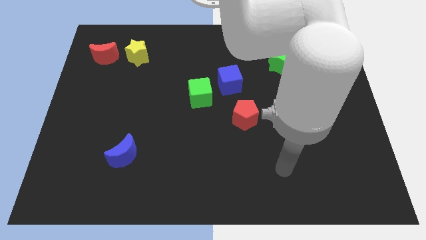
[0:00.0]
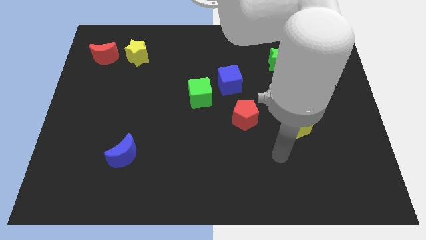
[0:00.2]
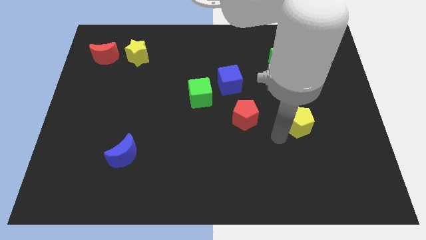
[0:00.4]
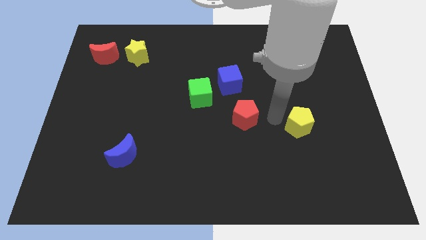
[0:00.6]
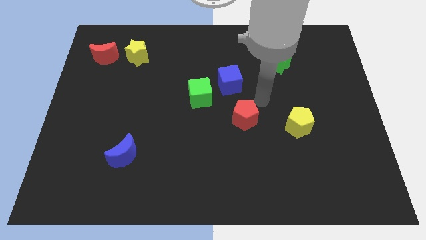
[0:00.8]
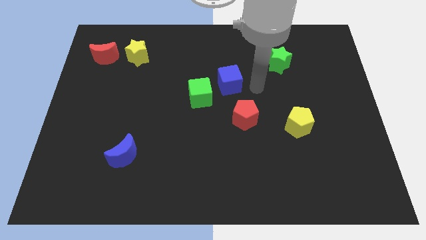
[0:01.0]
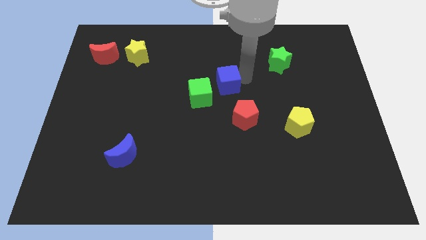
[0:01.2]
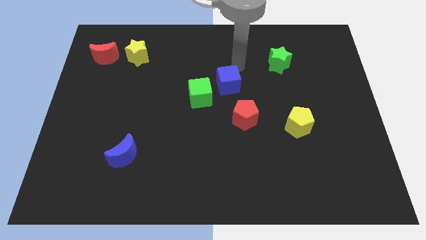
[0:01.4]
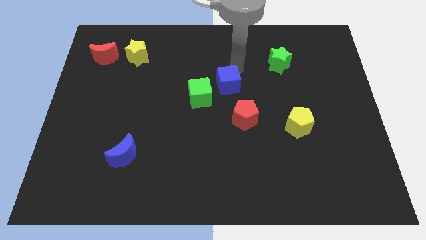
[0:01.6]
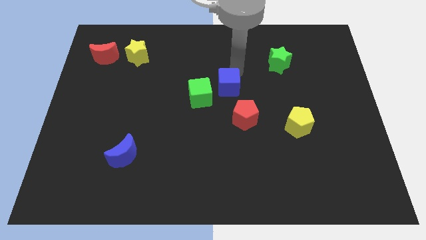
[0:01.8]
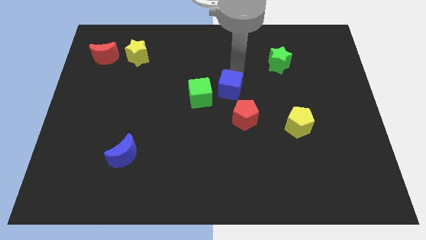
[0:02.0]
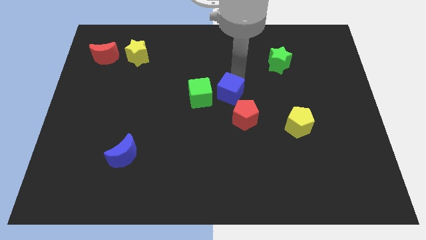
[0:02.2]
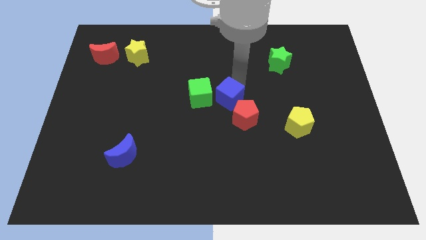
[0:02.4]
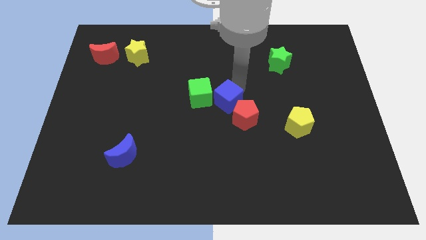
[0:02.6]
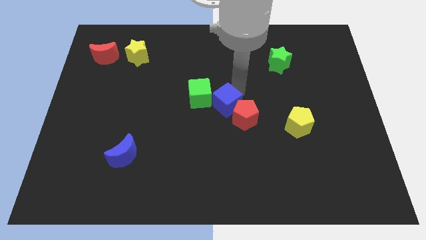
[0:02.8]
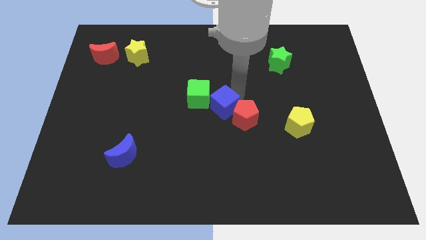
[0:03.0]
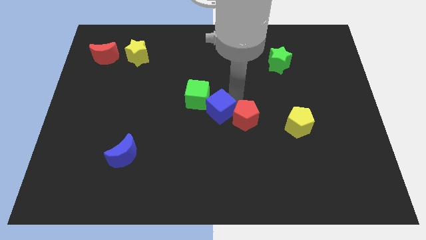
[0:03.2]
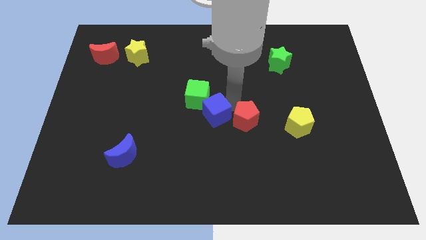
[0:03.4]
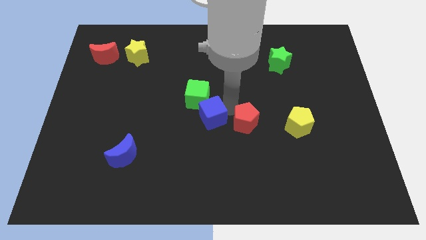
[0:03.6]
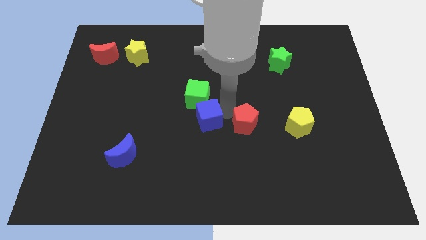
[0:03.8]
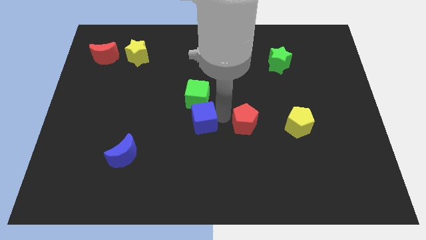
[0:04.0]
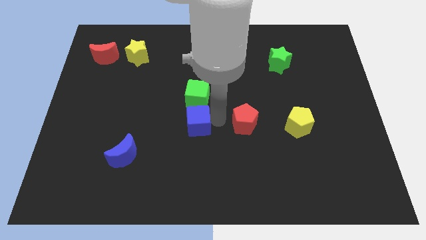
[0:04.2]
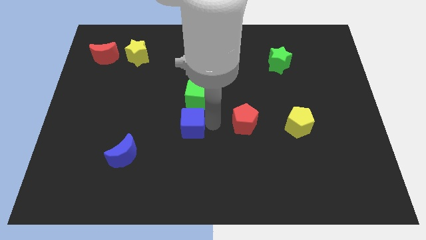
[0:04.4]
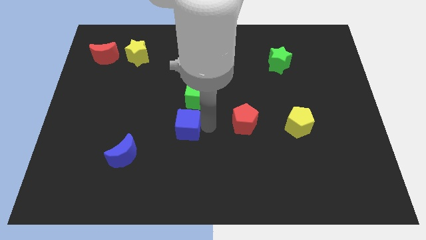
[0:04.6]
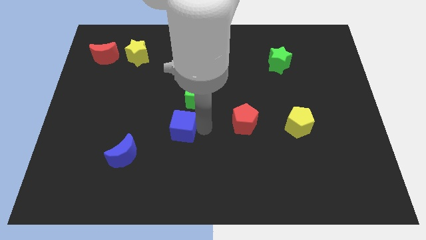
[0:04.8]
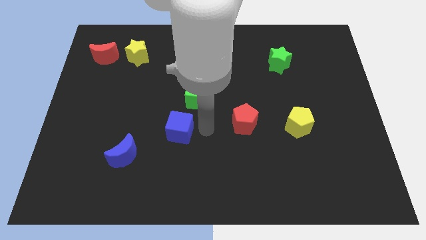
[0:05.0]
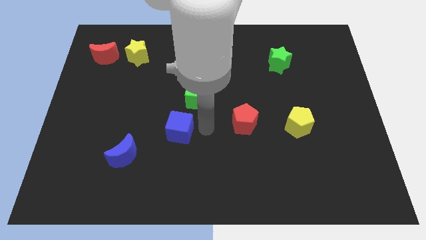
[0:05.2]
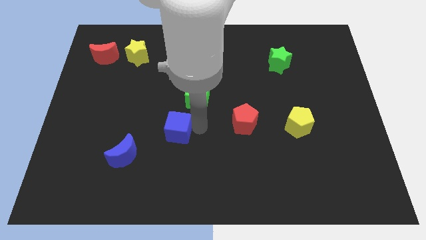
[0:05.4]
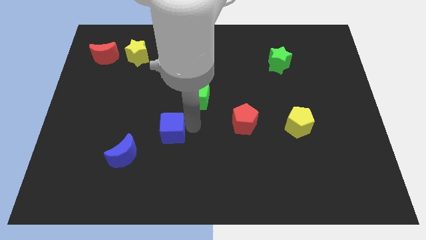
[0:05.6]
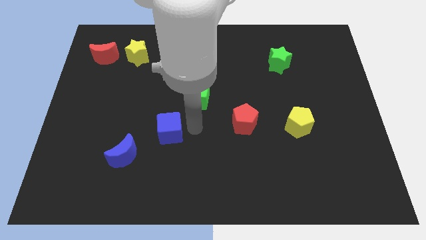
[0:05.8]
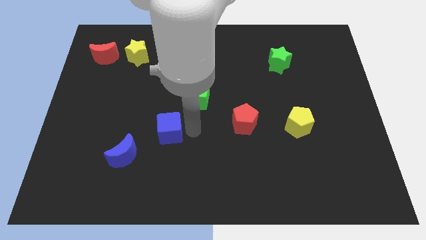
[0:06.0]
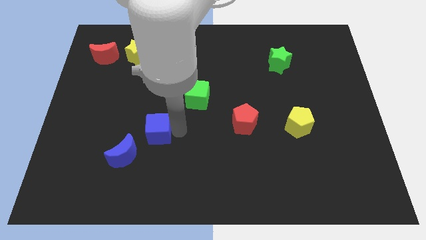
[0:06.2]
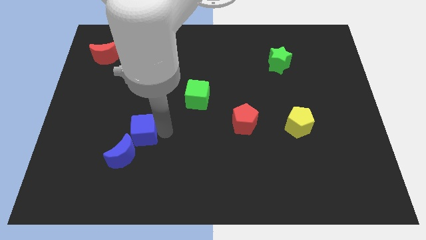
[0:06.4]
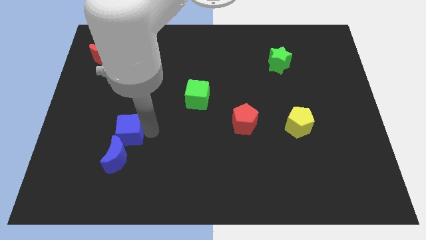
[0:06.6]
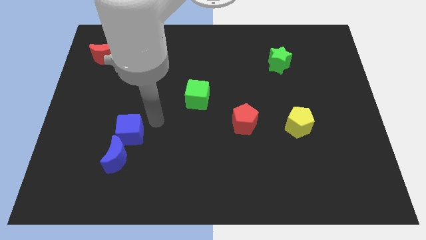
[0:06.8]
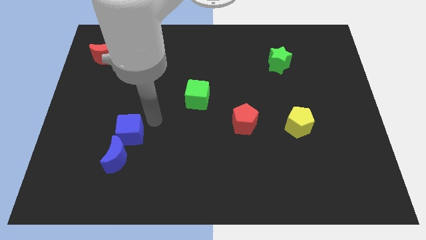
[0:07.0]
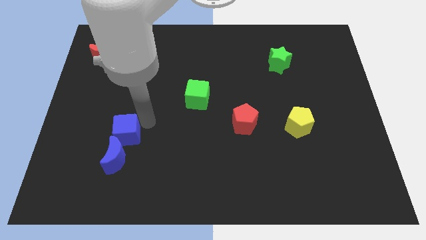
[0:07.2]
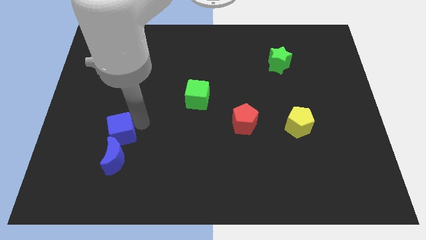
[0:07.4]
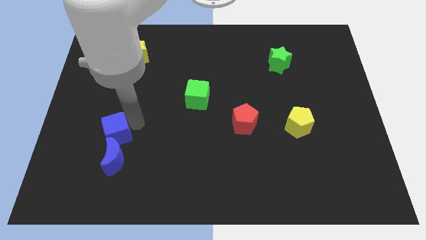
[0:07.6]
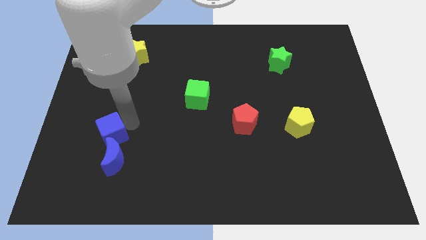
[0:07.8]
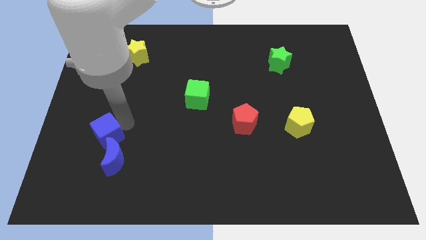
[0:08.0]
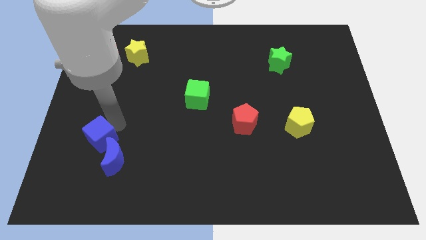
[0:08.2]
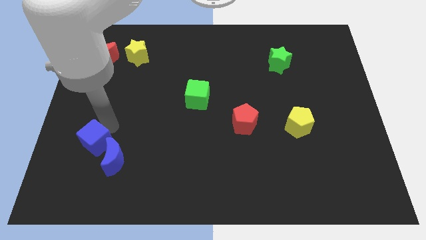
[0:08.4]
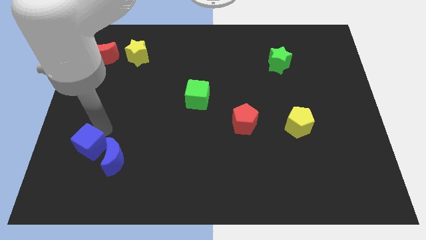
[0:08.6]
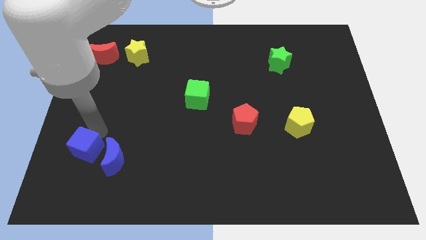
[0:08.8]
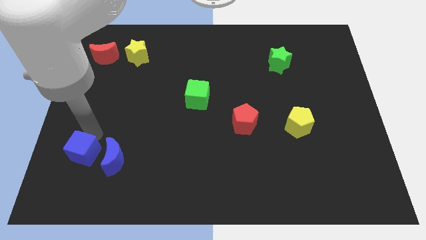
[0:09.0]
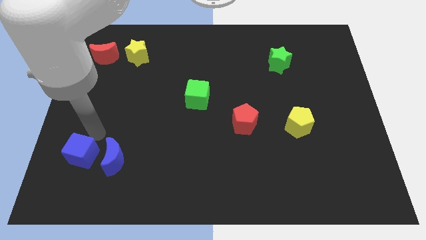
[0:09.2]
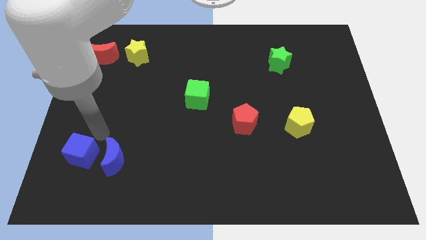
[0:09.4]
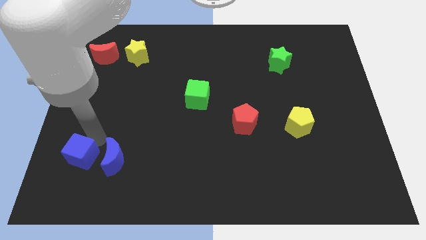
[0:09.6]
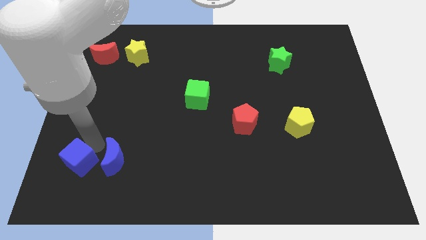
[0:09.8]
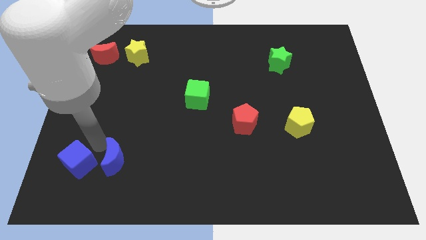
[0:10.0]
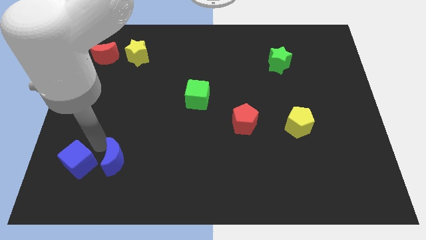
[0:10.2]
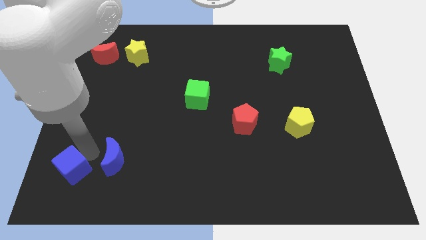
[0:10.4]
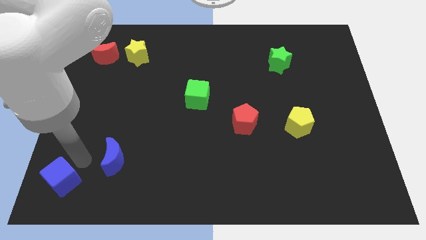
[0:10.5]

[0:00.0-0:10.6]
push the blue cube to the bottom left

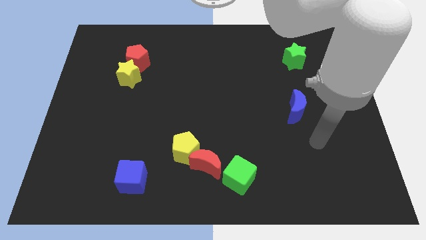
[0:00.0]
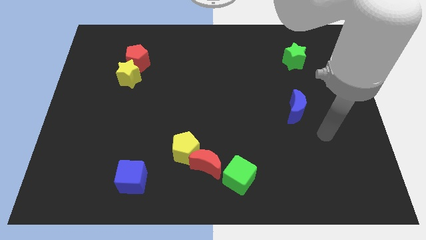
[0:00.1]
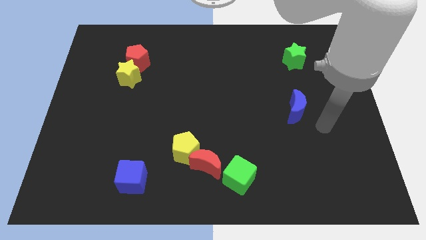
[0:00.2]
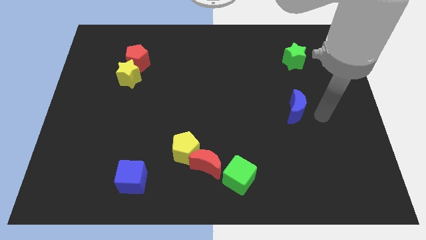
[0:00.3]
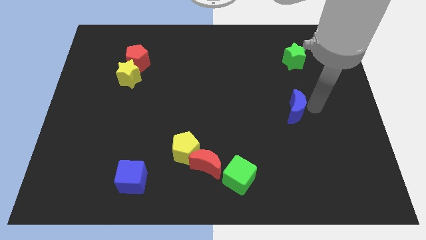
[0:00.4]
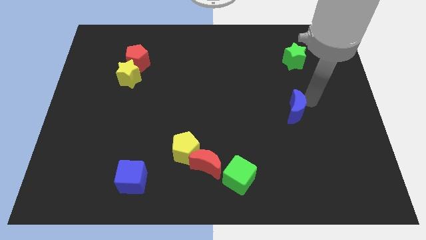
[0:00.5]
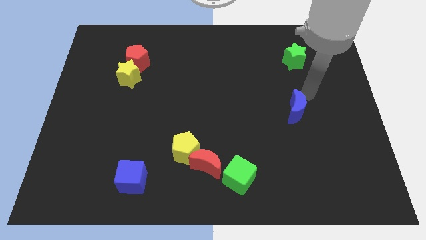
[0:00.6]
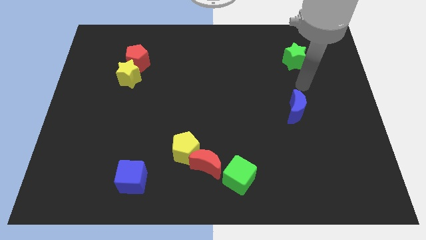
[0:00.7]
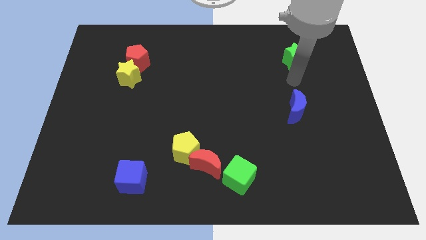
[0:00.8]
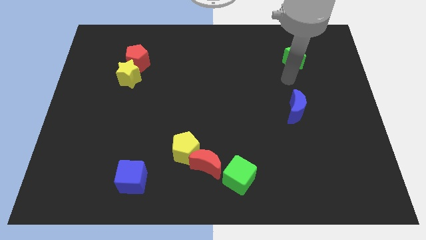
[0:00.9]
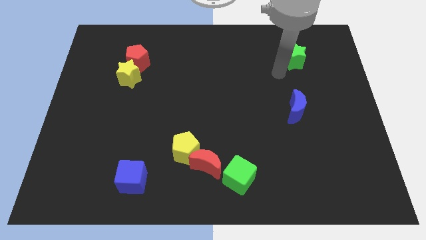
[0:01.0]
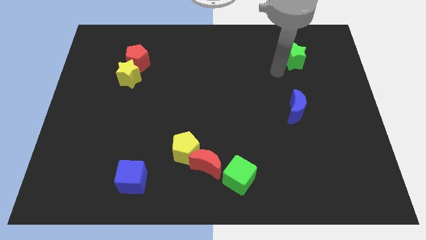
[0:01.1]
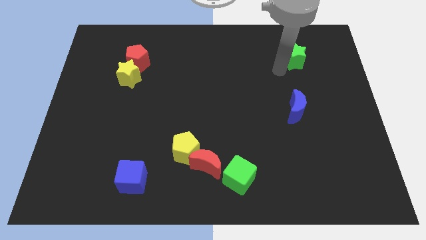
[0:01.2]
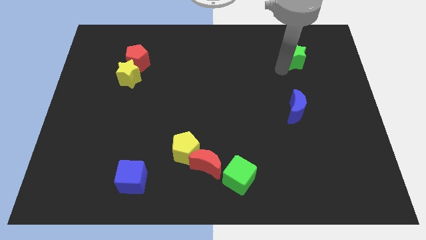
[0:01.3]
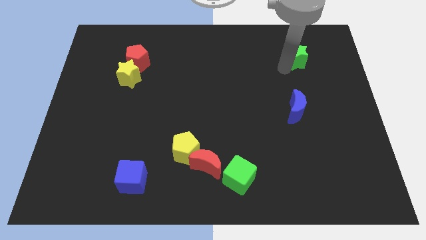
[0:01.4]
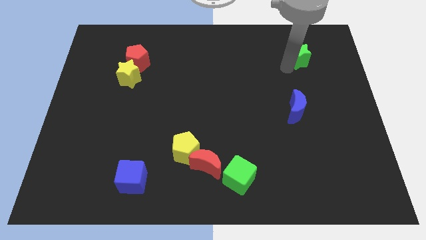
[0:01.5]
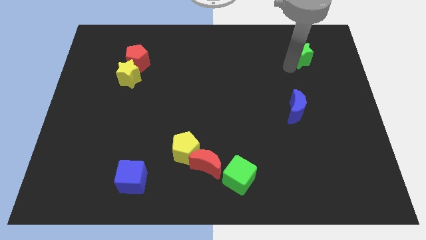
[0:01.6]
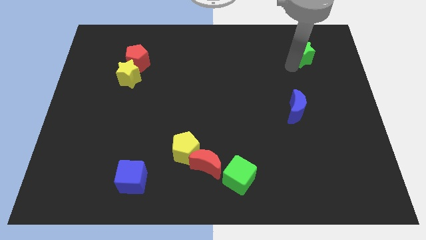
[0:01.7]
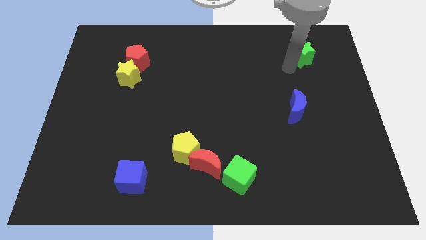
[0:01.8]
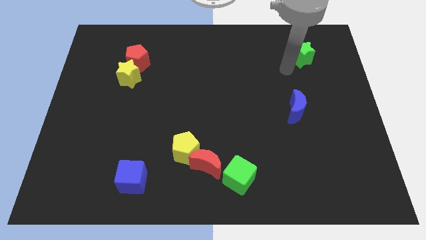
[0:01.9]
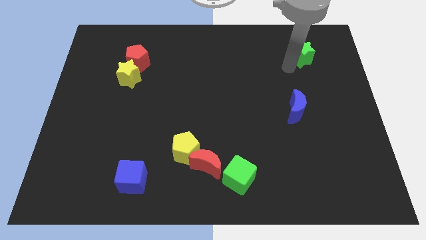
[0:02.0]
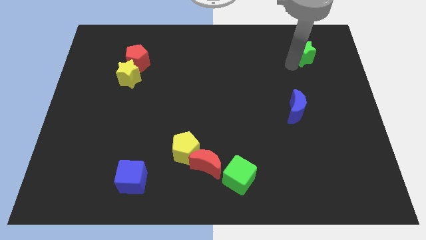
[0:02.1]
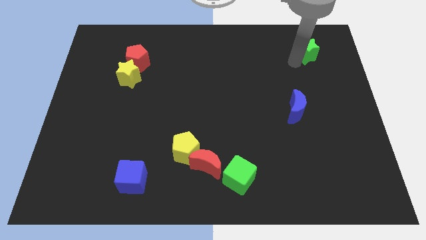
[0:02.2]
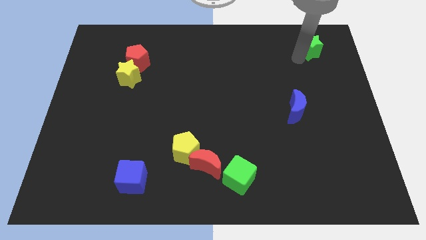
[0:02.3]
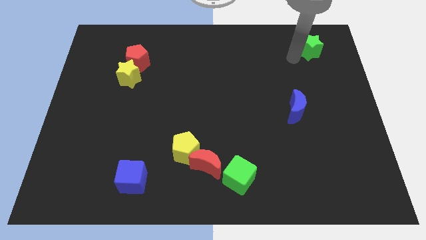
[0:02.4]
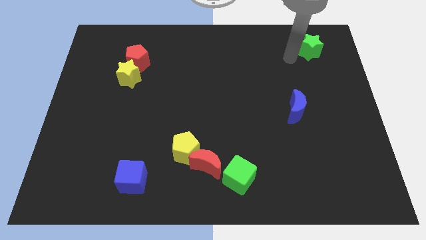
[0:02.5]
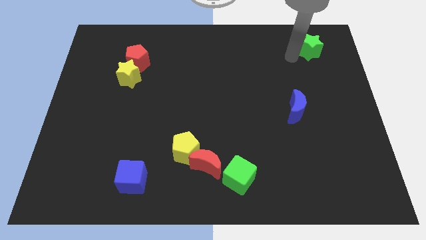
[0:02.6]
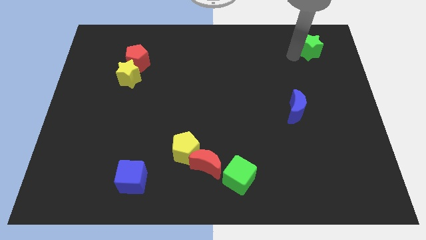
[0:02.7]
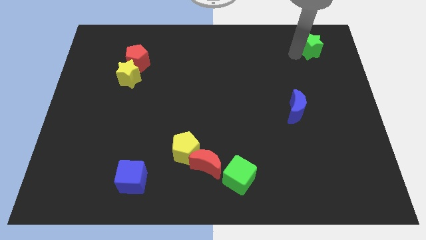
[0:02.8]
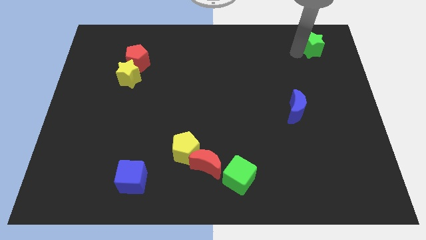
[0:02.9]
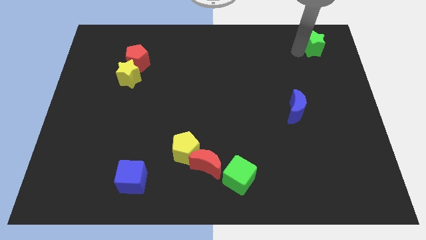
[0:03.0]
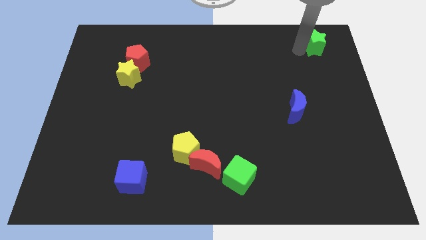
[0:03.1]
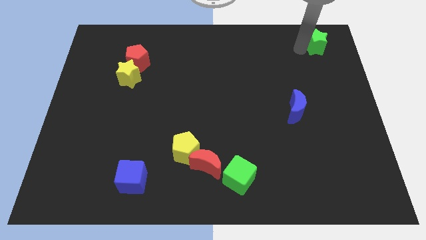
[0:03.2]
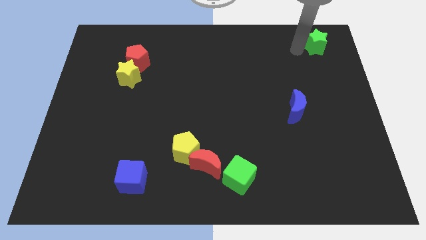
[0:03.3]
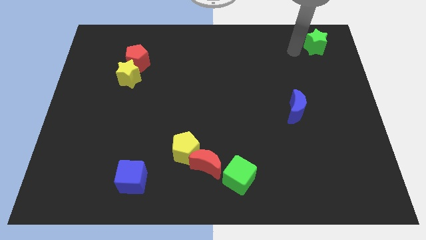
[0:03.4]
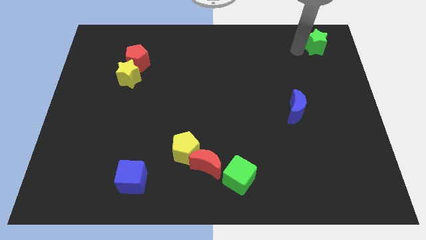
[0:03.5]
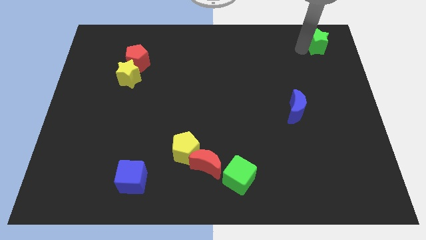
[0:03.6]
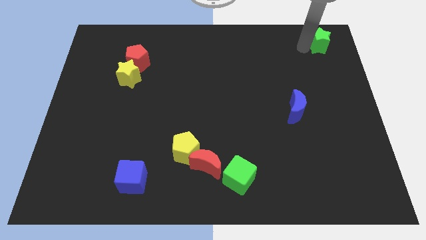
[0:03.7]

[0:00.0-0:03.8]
push the green star to the top right of the board
